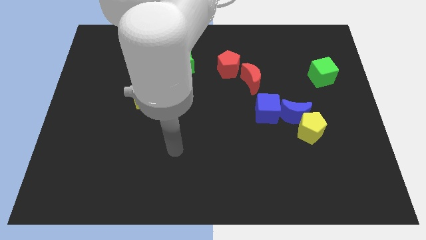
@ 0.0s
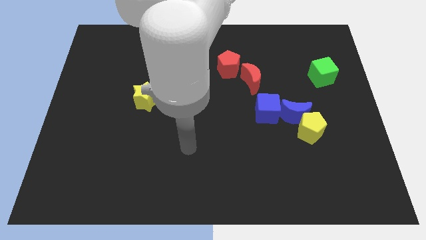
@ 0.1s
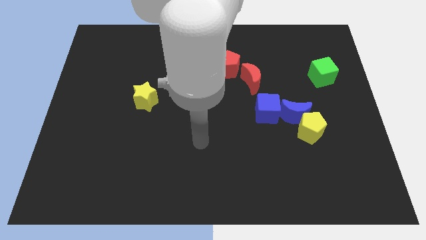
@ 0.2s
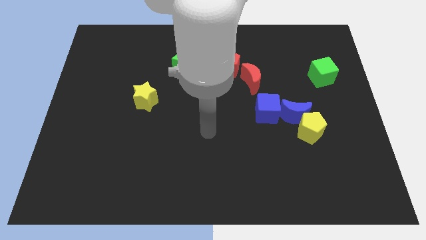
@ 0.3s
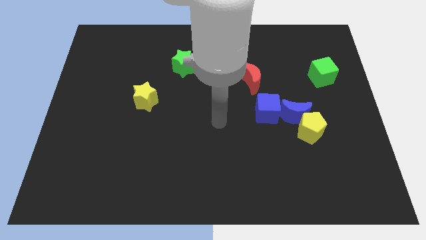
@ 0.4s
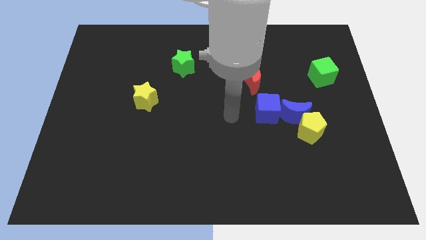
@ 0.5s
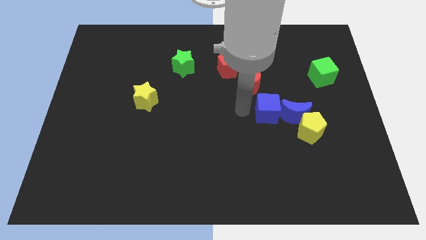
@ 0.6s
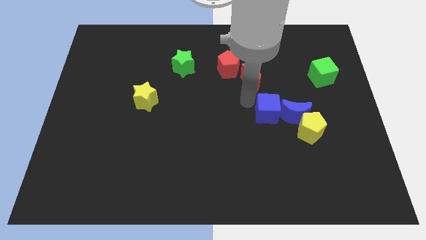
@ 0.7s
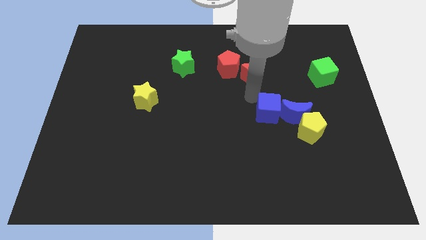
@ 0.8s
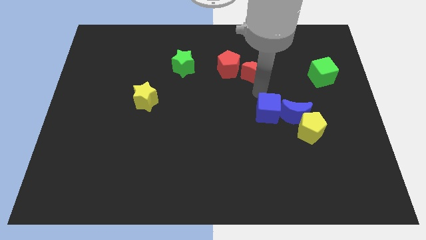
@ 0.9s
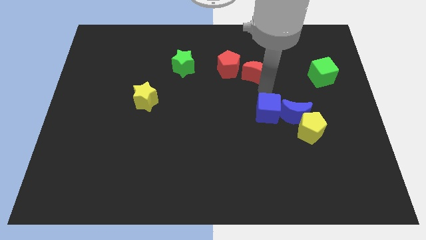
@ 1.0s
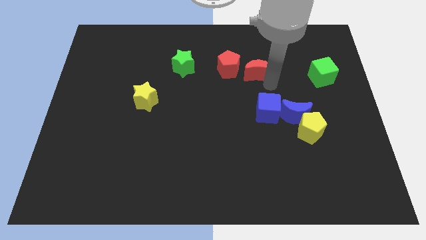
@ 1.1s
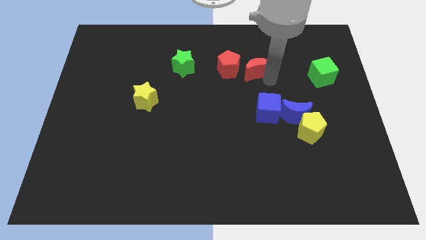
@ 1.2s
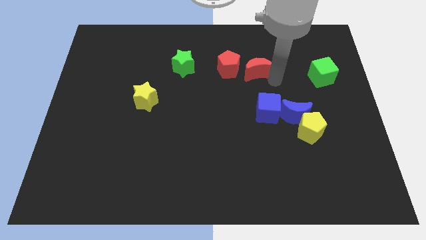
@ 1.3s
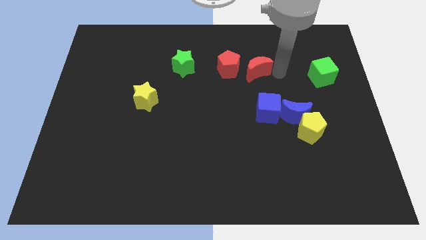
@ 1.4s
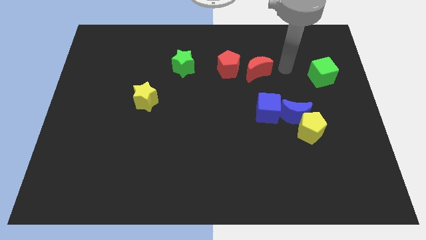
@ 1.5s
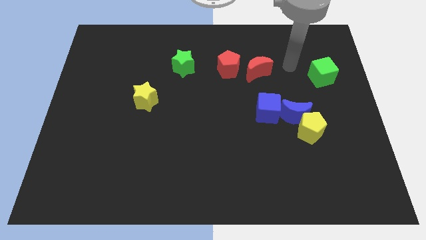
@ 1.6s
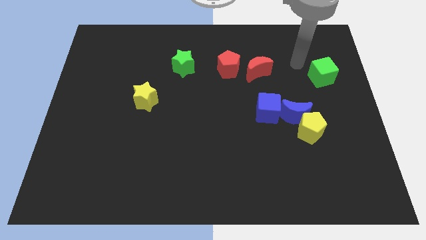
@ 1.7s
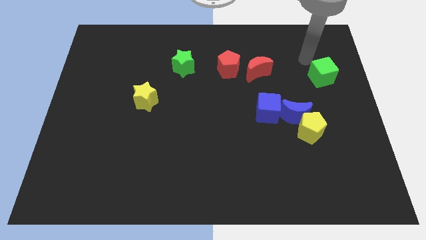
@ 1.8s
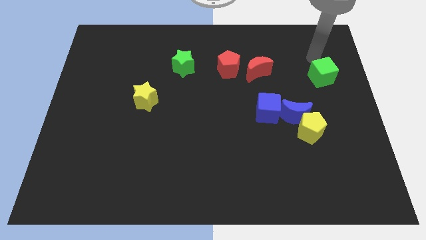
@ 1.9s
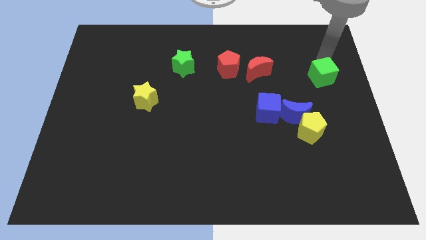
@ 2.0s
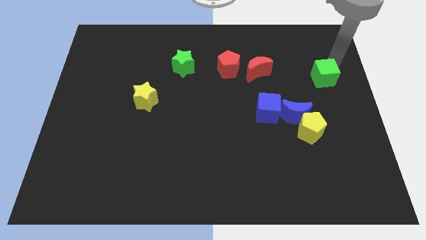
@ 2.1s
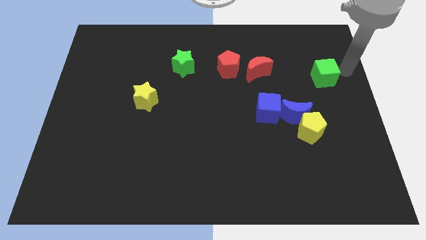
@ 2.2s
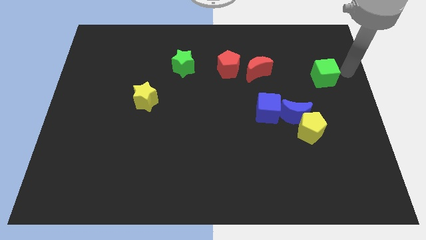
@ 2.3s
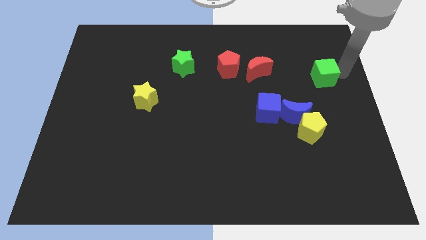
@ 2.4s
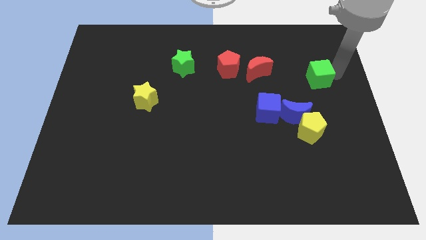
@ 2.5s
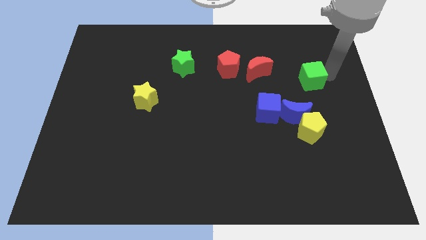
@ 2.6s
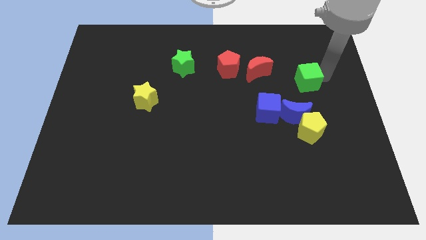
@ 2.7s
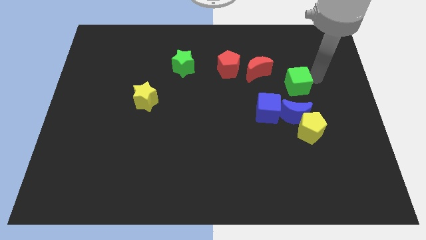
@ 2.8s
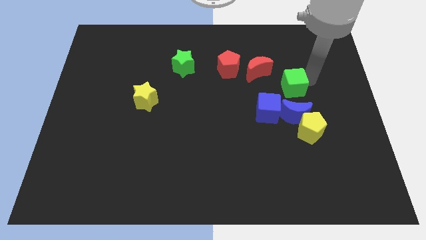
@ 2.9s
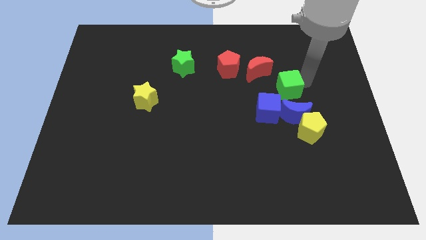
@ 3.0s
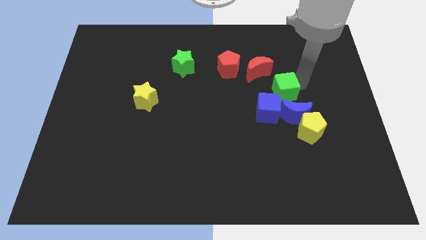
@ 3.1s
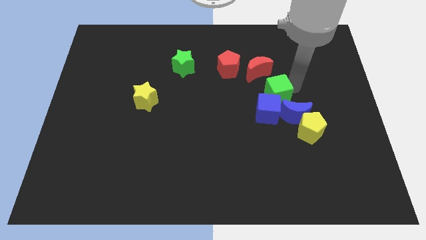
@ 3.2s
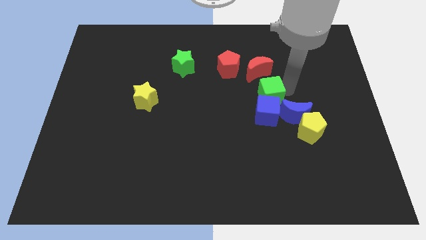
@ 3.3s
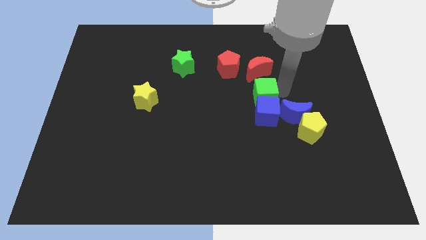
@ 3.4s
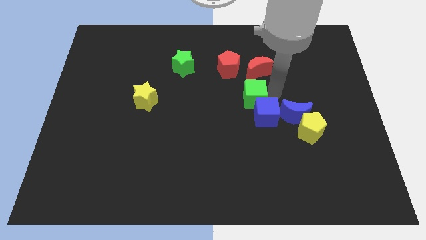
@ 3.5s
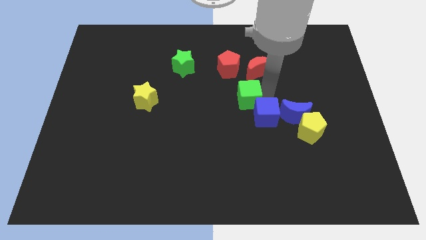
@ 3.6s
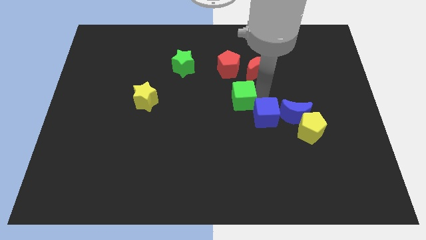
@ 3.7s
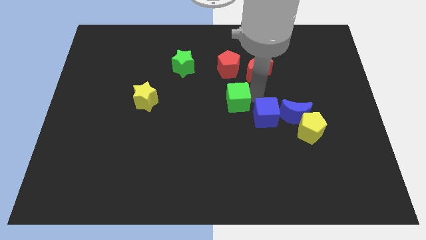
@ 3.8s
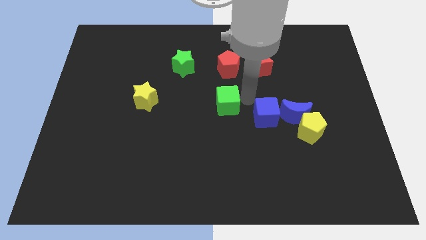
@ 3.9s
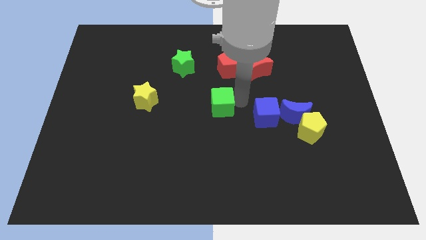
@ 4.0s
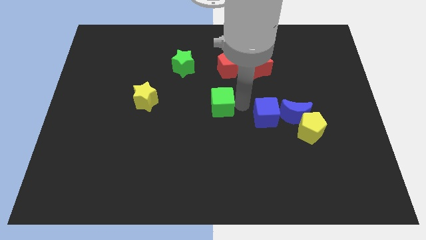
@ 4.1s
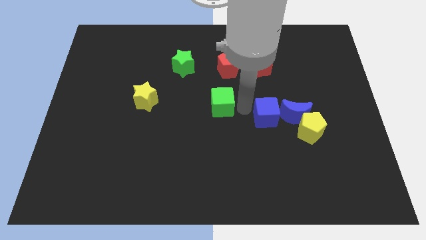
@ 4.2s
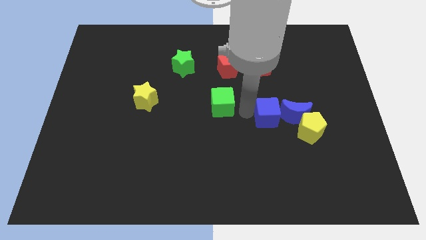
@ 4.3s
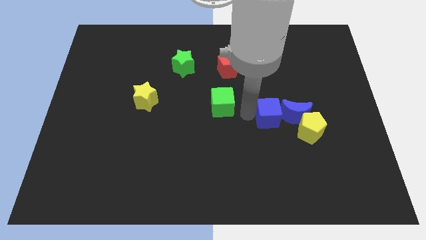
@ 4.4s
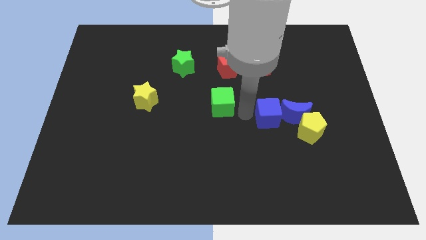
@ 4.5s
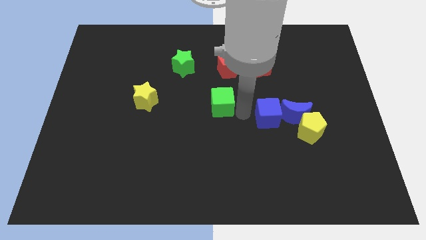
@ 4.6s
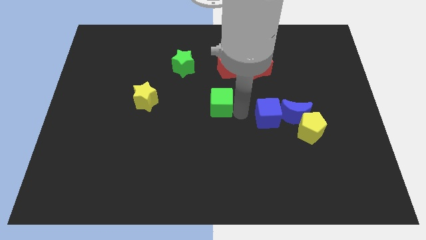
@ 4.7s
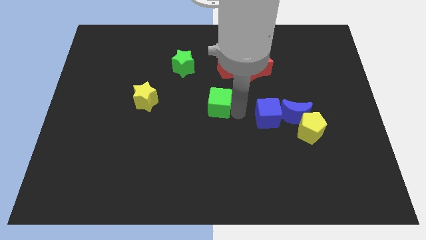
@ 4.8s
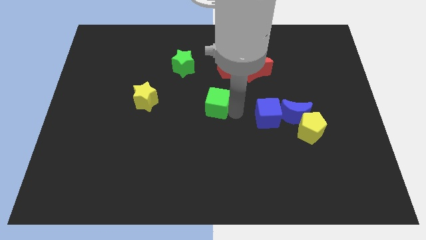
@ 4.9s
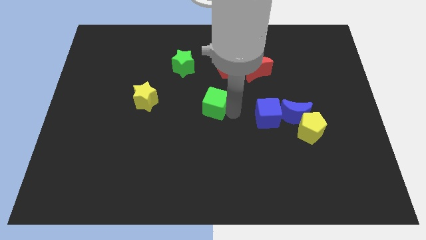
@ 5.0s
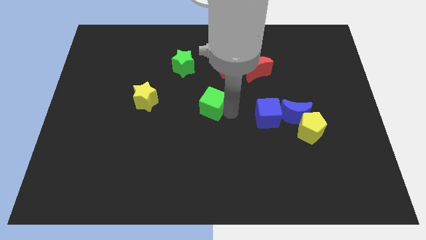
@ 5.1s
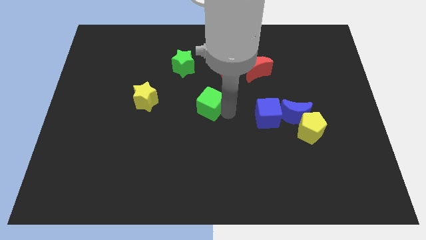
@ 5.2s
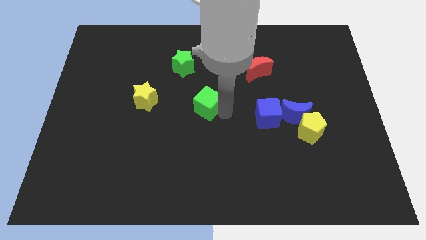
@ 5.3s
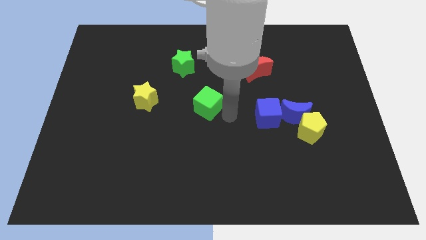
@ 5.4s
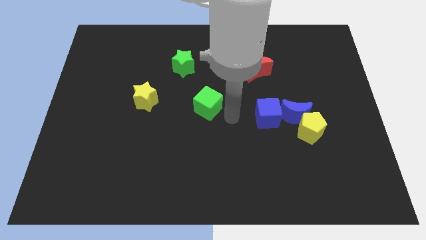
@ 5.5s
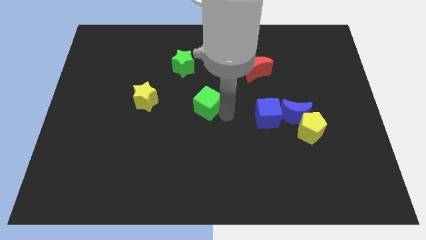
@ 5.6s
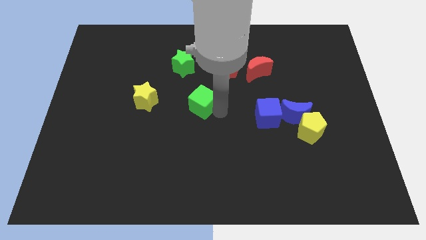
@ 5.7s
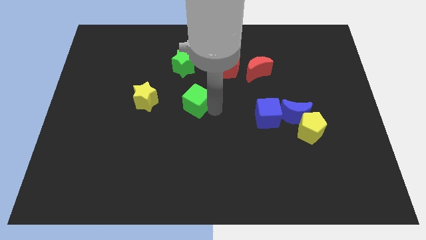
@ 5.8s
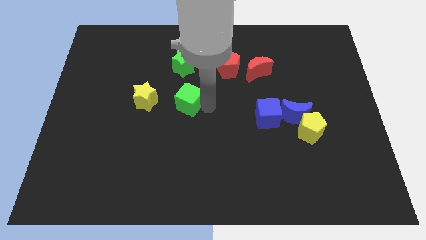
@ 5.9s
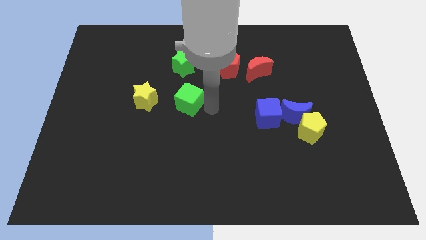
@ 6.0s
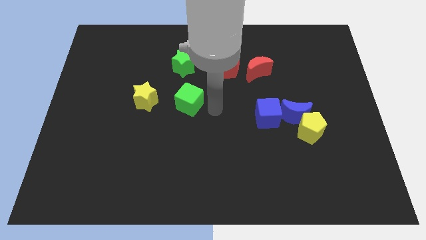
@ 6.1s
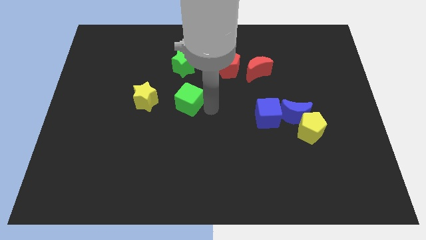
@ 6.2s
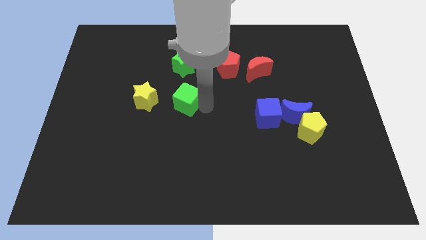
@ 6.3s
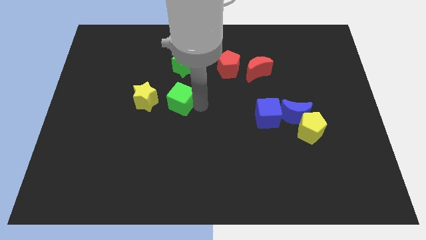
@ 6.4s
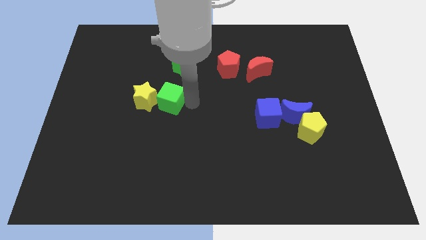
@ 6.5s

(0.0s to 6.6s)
move the green cube close to the yellow star

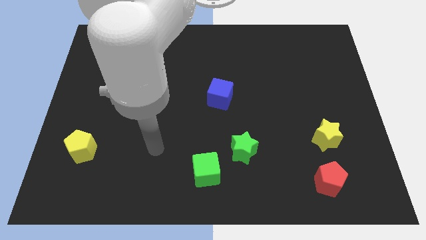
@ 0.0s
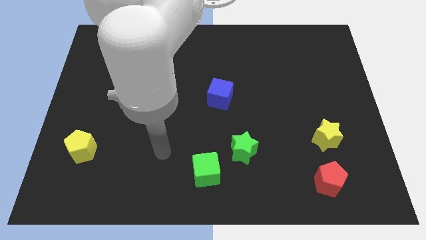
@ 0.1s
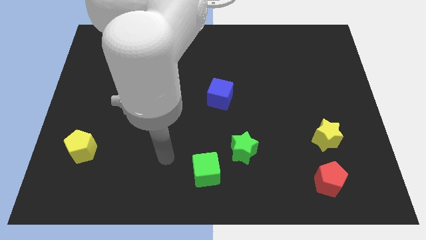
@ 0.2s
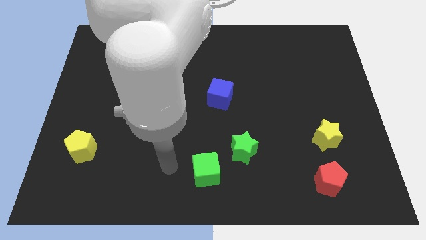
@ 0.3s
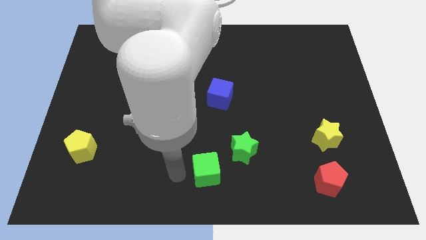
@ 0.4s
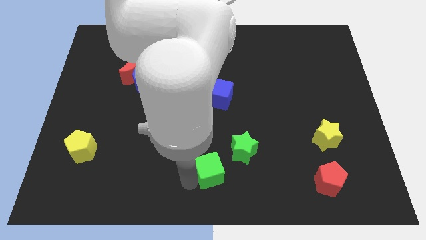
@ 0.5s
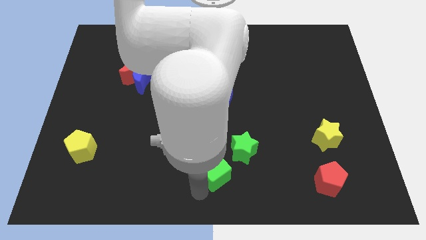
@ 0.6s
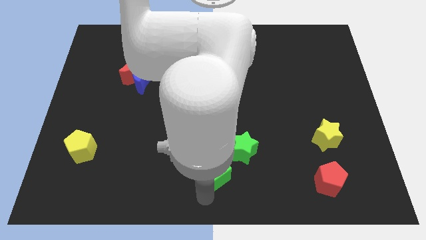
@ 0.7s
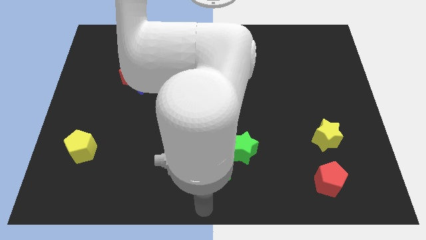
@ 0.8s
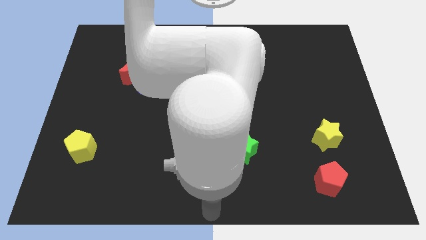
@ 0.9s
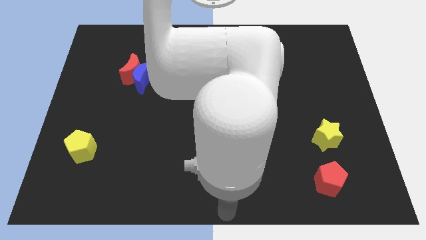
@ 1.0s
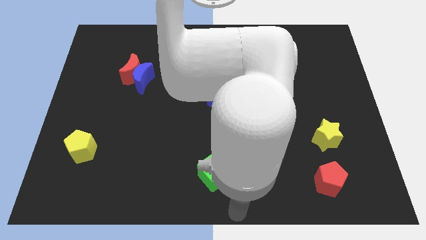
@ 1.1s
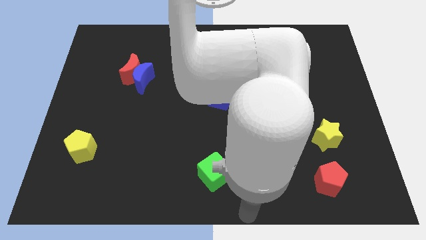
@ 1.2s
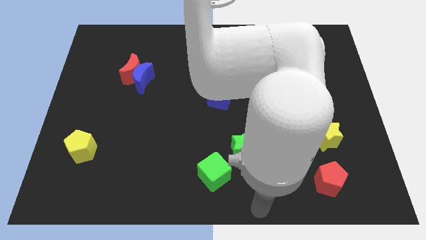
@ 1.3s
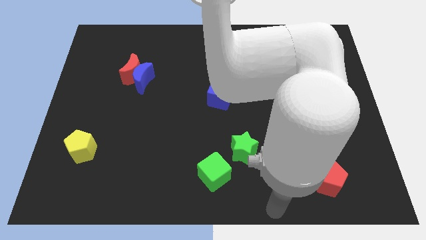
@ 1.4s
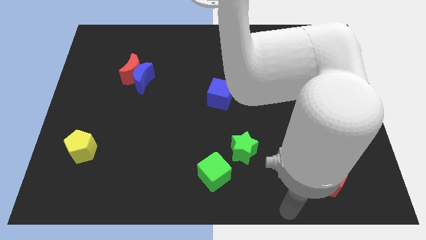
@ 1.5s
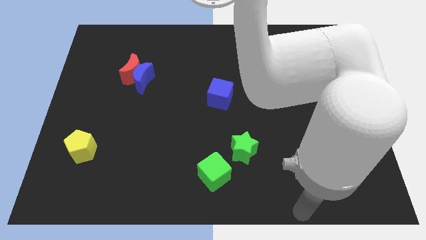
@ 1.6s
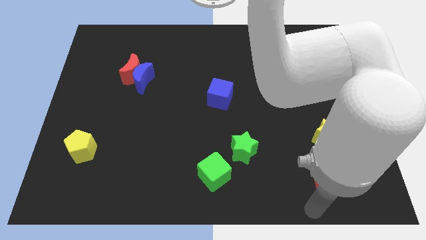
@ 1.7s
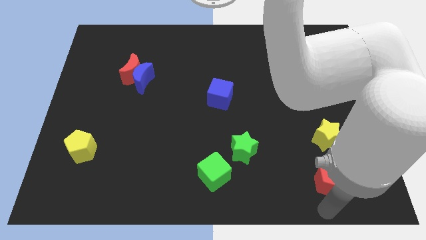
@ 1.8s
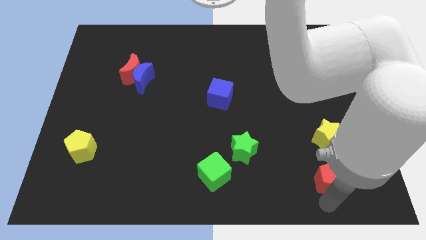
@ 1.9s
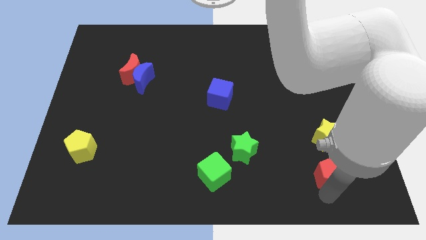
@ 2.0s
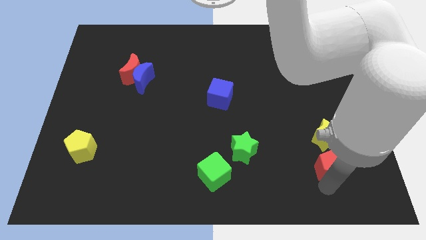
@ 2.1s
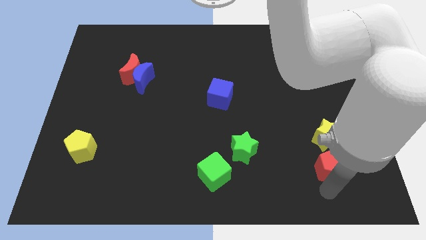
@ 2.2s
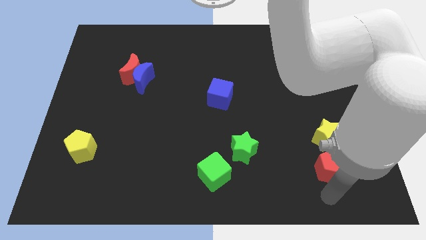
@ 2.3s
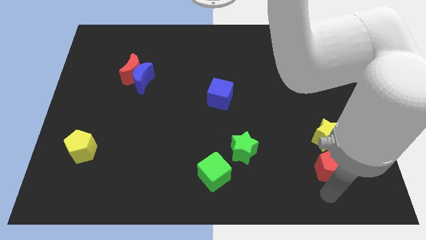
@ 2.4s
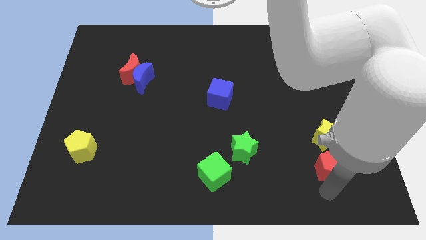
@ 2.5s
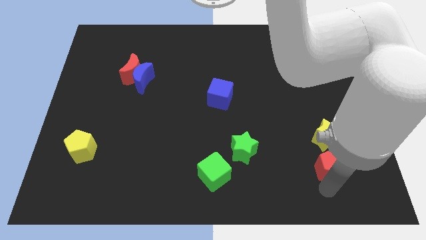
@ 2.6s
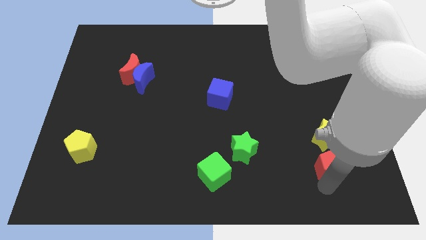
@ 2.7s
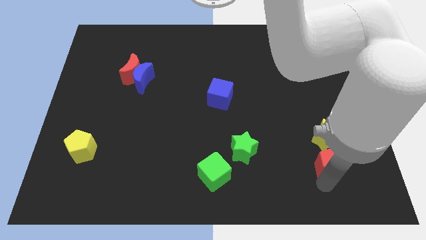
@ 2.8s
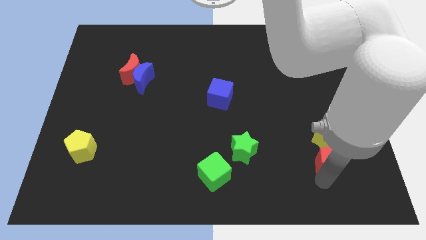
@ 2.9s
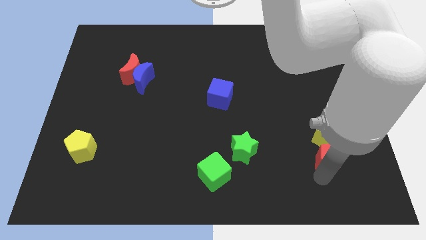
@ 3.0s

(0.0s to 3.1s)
put the red pentagon towards the yellow star
